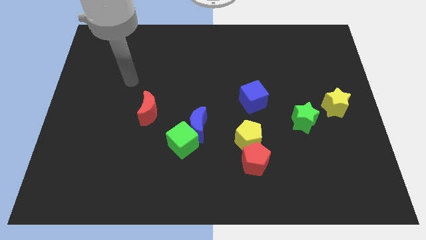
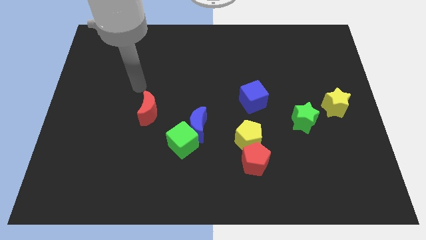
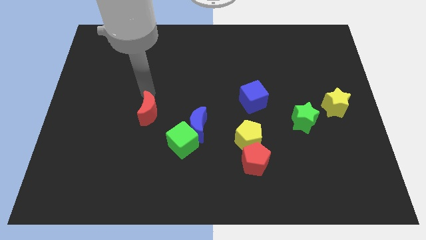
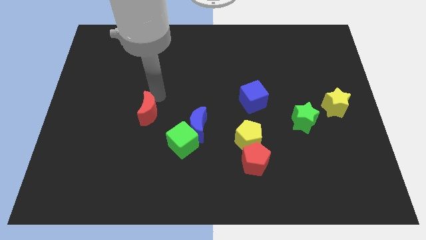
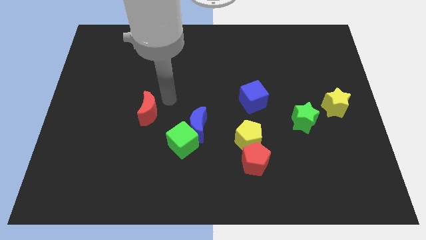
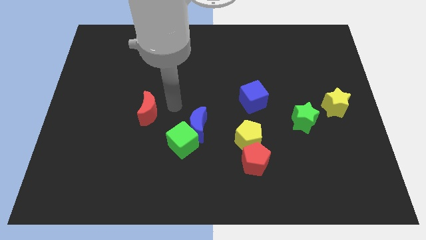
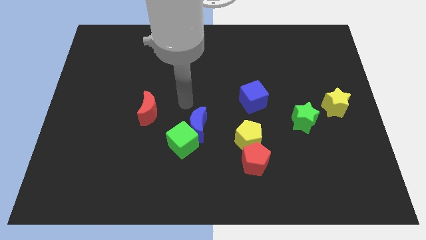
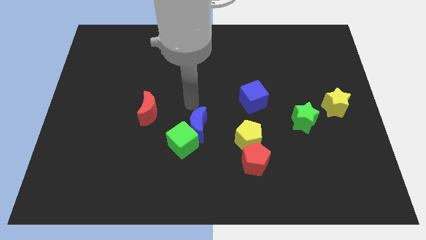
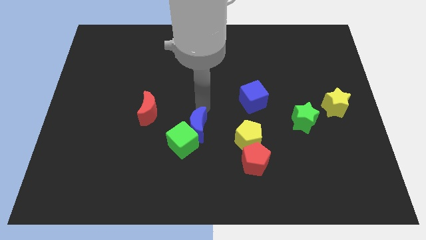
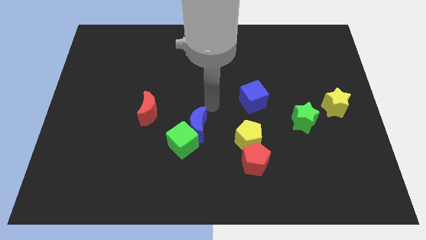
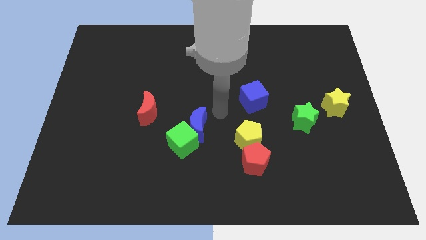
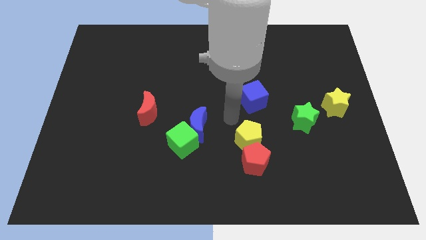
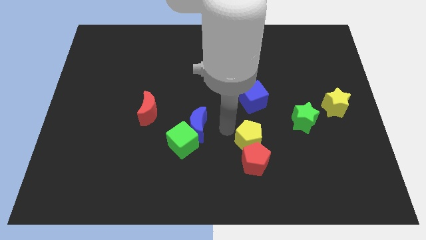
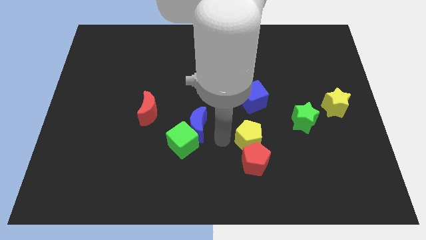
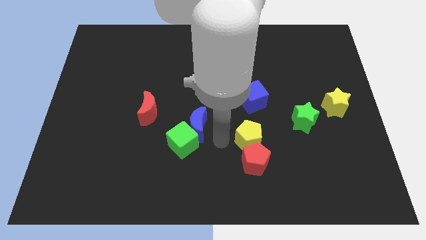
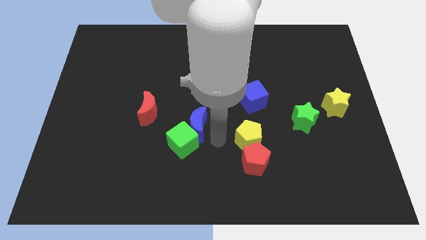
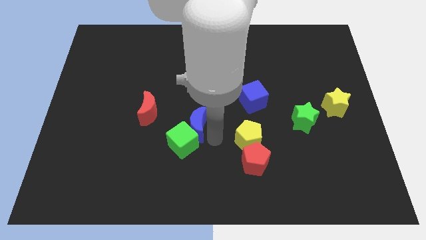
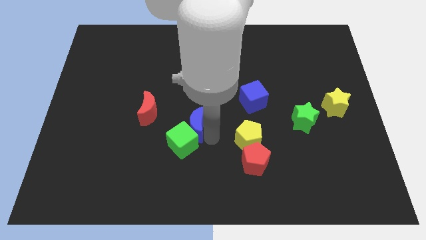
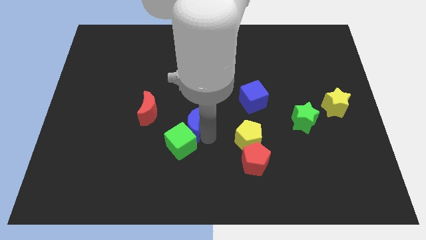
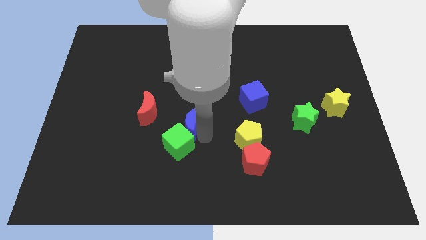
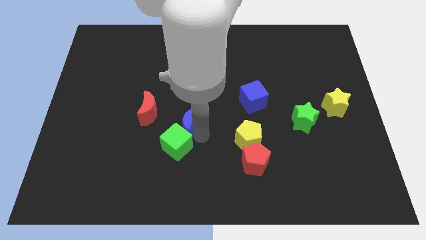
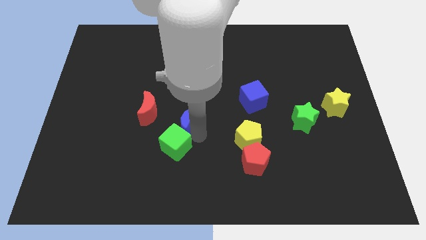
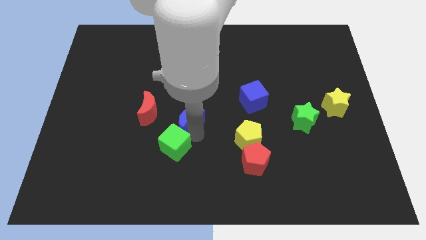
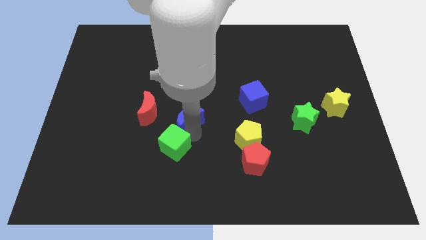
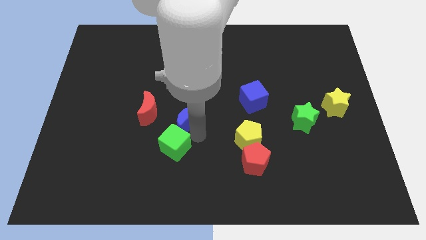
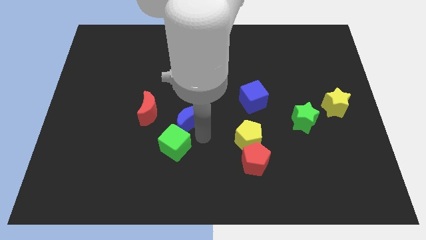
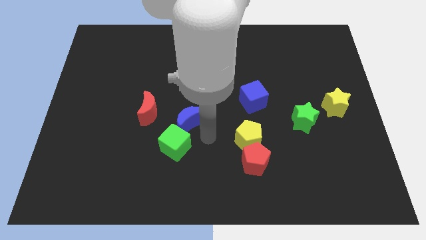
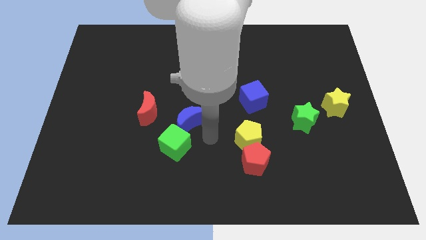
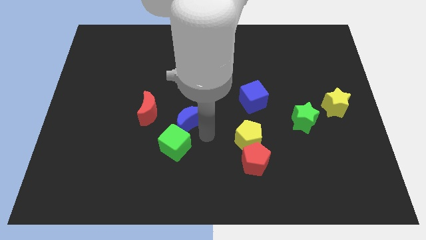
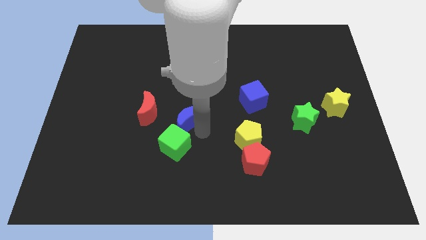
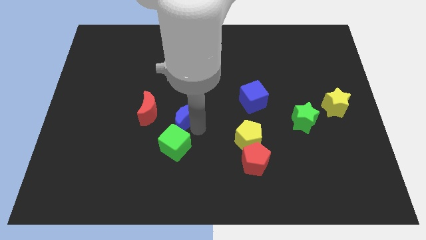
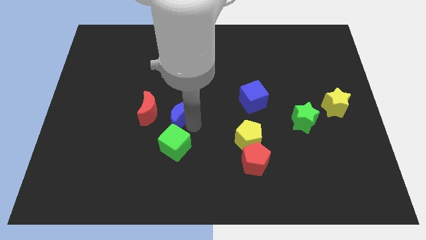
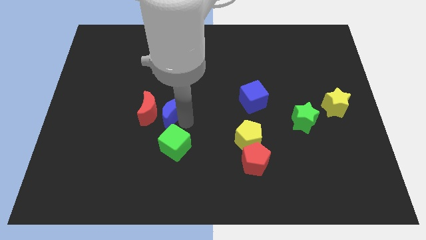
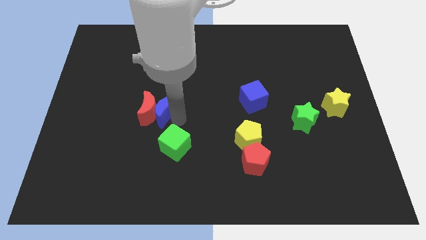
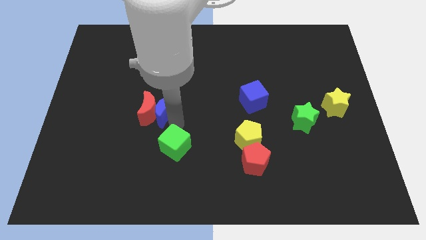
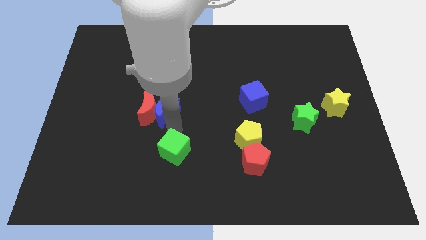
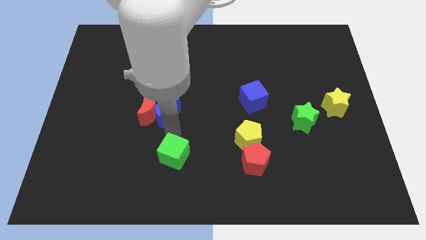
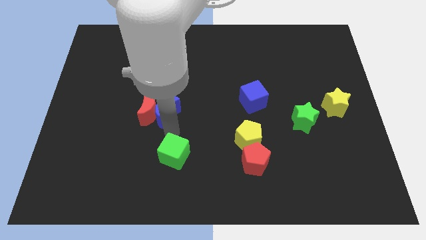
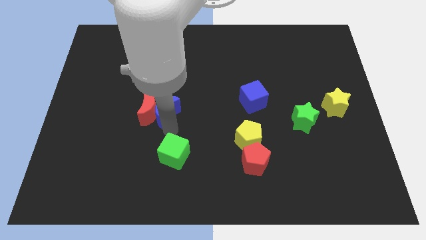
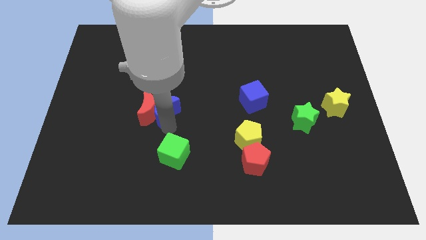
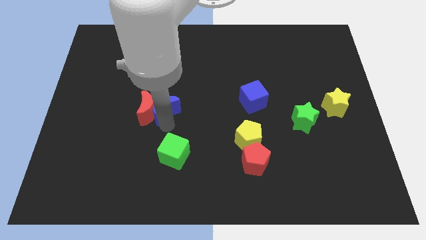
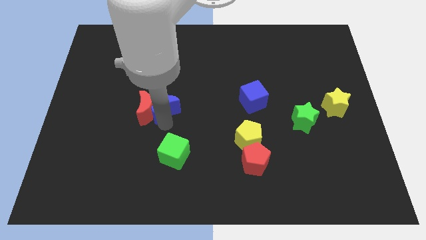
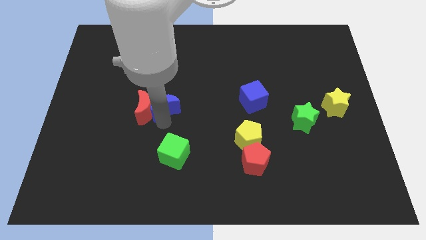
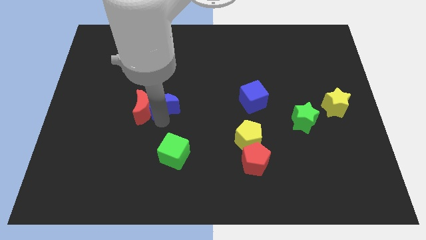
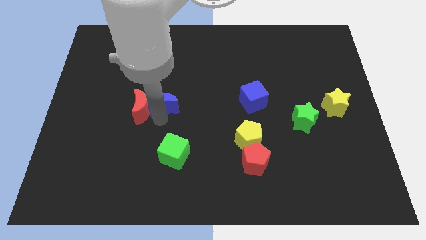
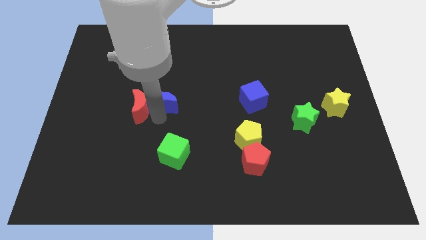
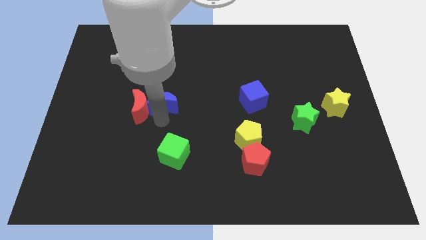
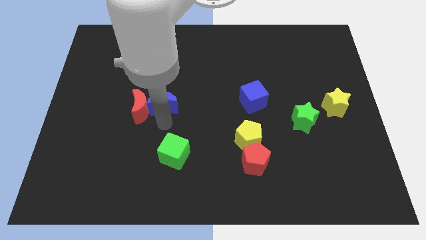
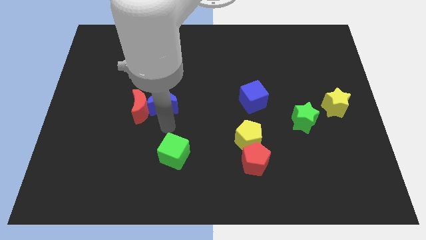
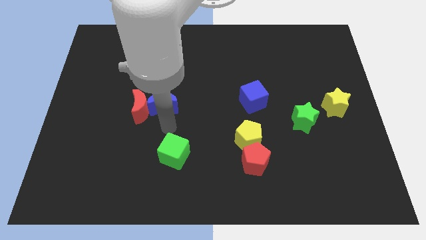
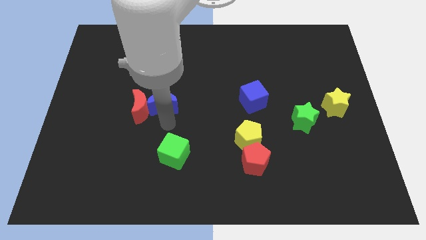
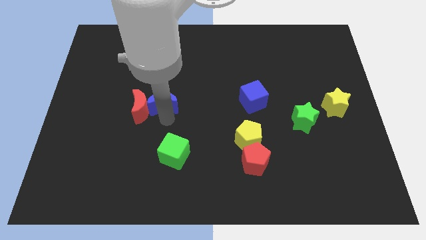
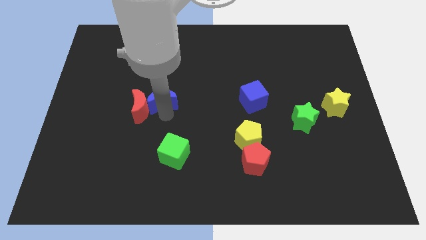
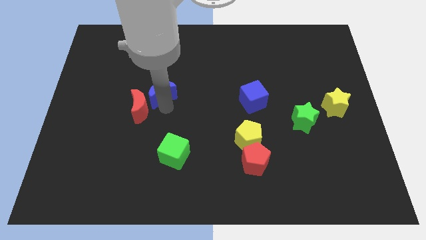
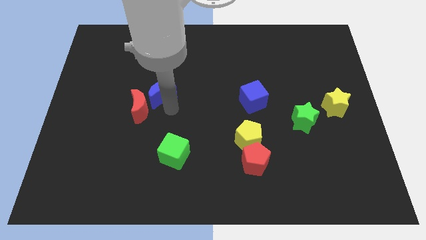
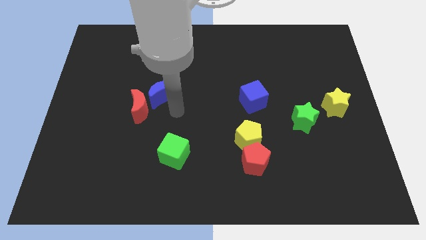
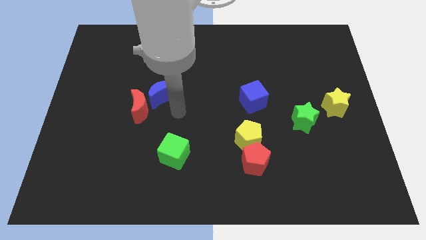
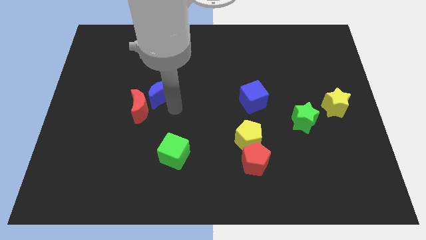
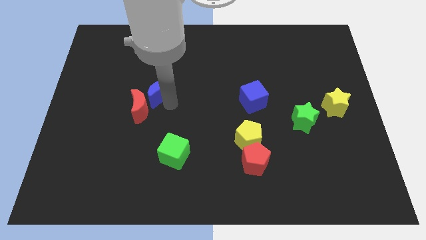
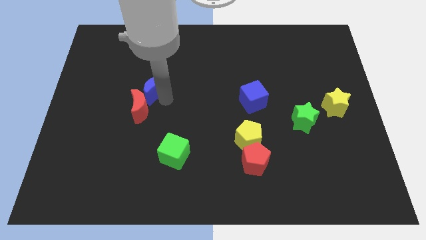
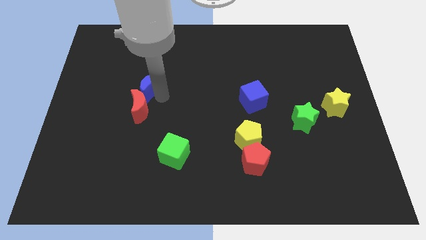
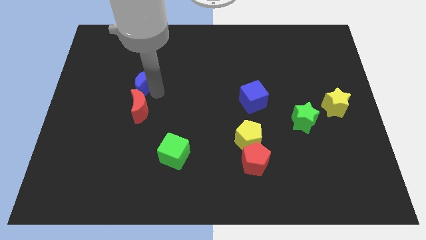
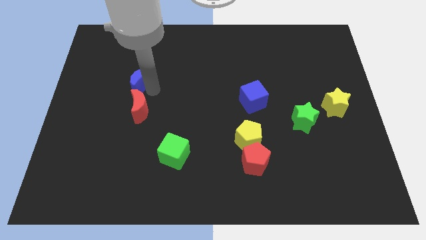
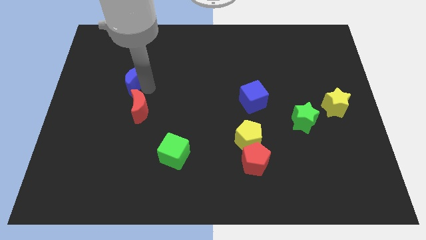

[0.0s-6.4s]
move the blue moon upwards and then to the left

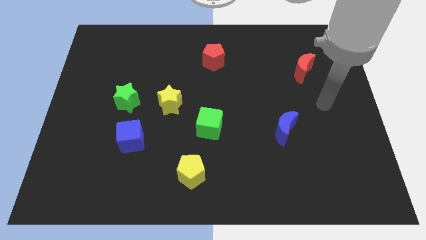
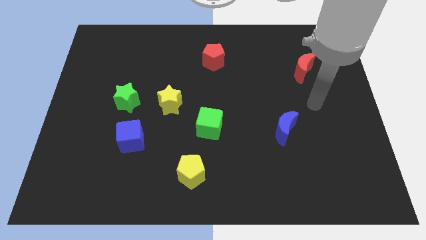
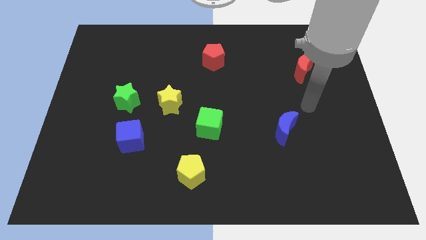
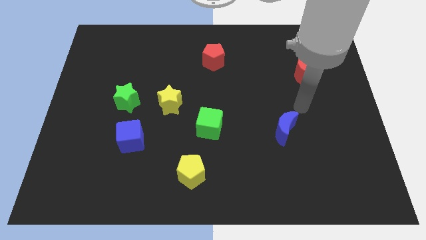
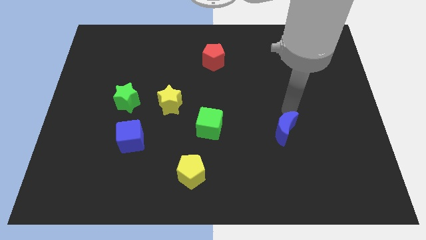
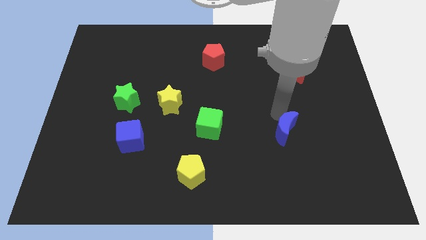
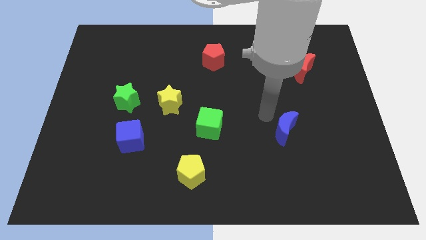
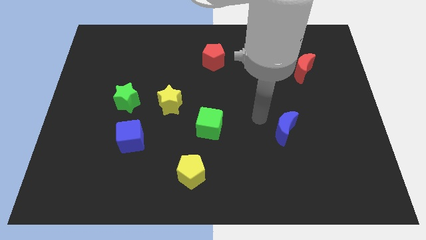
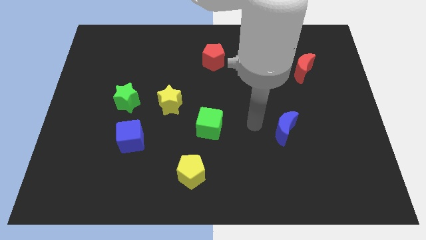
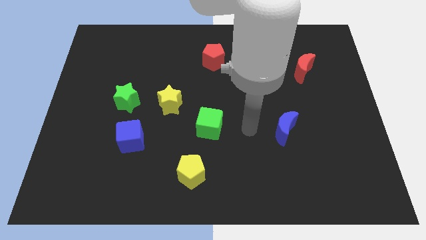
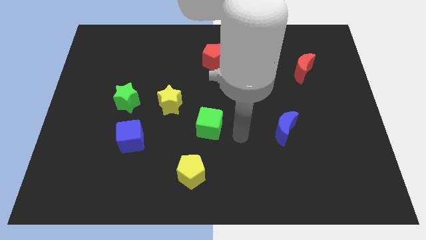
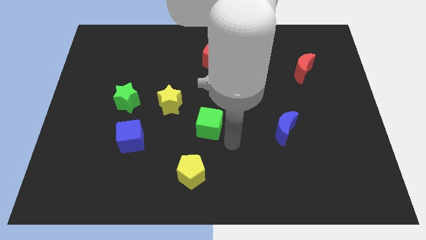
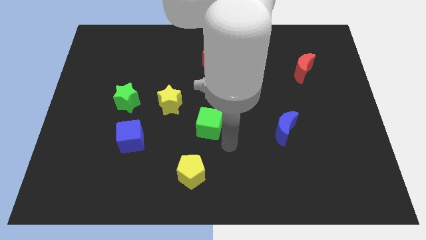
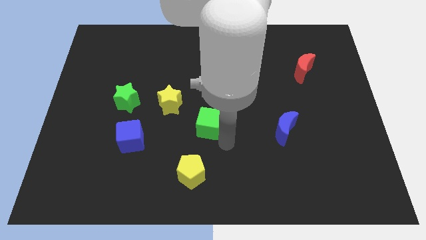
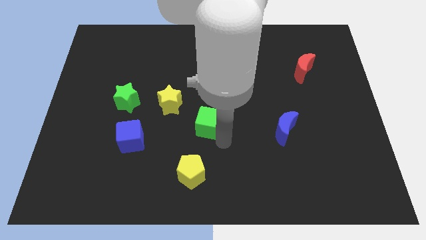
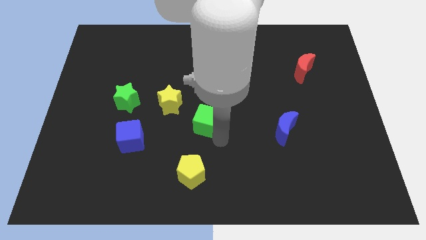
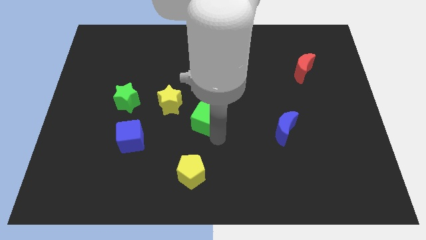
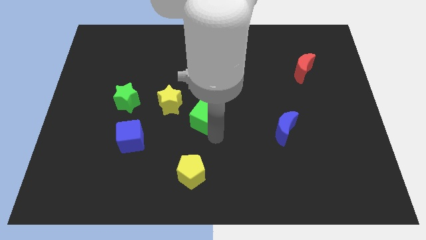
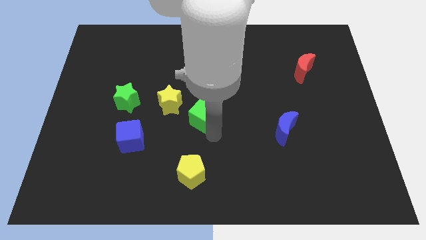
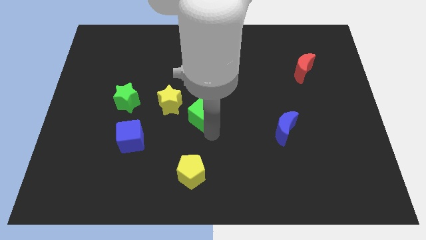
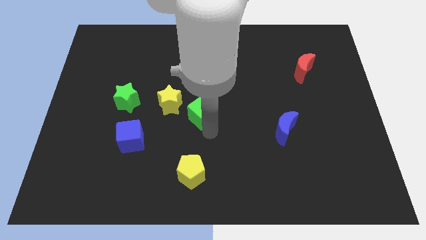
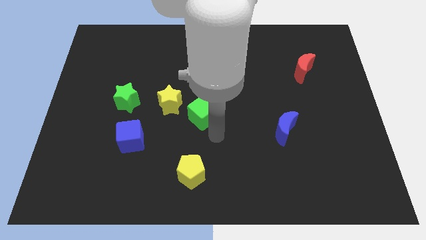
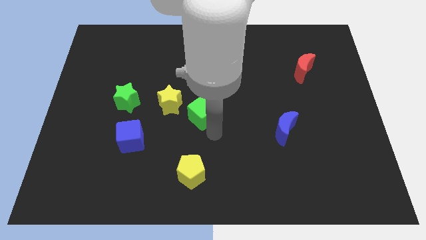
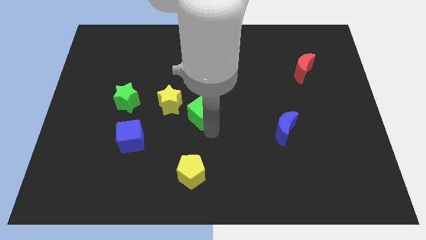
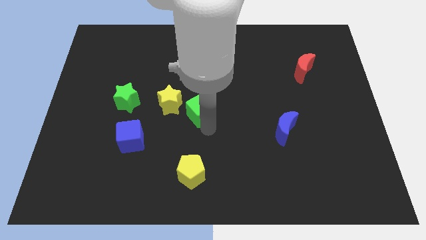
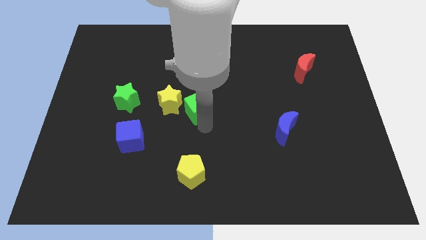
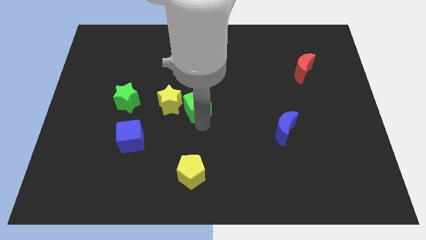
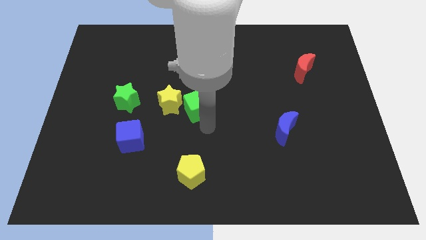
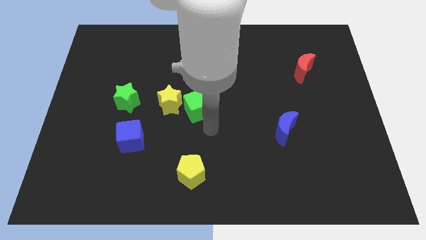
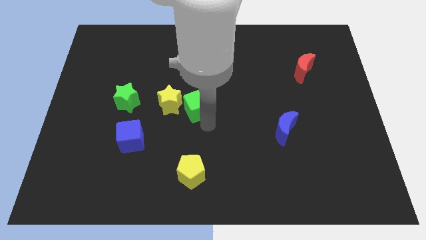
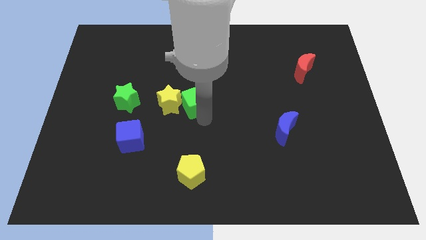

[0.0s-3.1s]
move the green cube up and to the left somewhat
